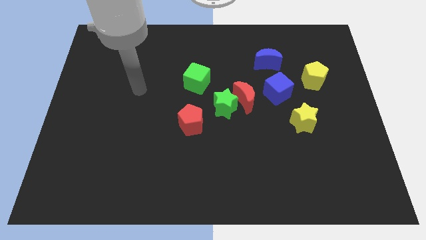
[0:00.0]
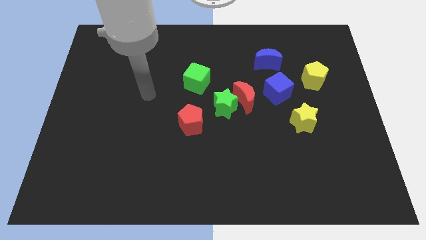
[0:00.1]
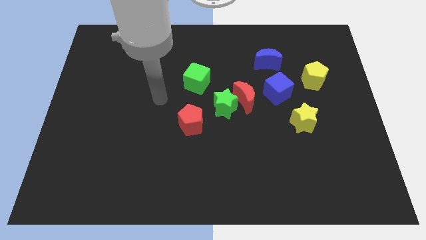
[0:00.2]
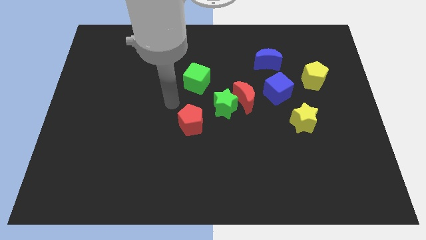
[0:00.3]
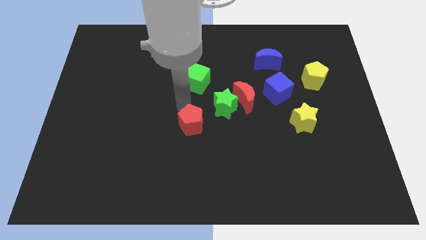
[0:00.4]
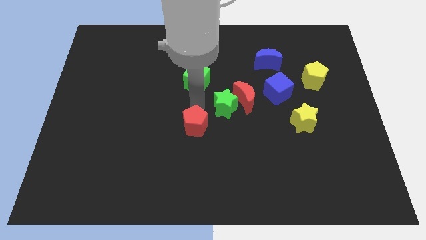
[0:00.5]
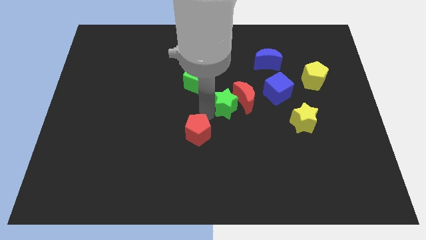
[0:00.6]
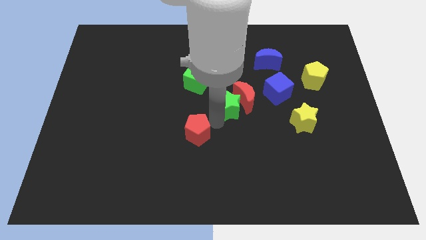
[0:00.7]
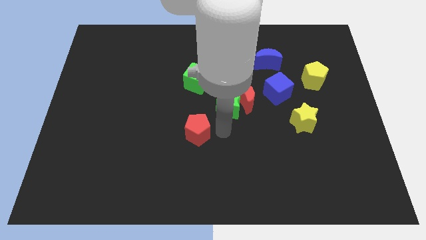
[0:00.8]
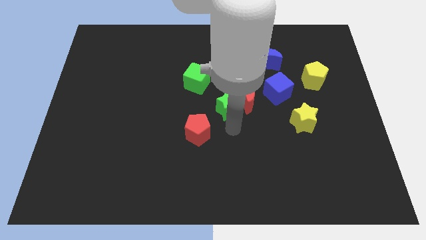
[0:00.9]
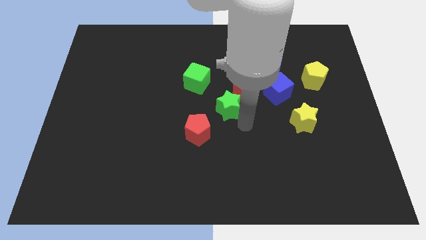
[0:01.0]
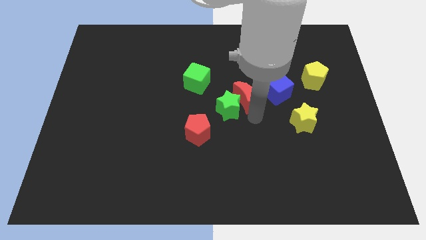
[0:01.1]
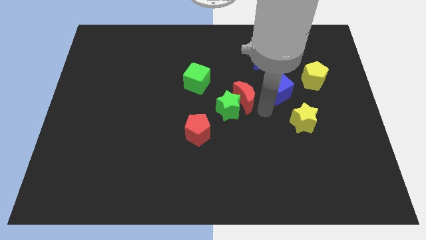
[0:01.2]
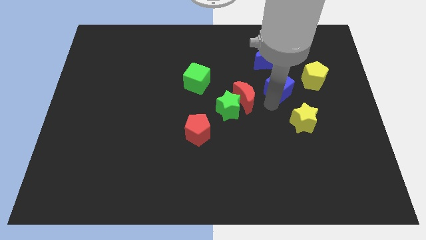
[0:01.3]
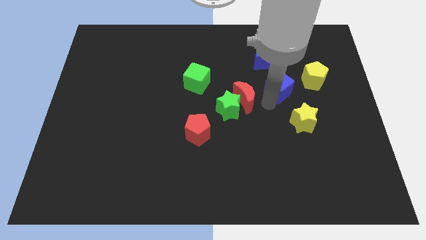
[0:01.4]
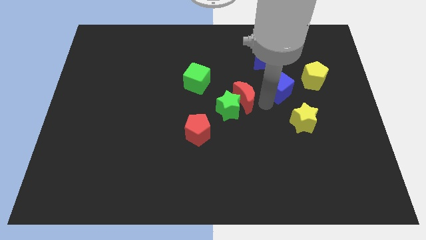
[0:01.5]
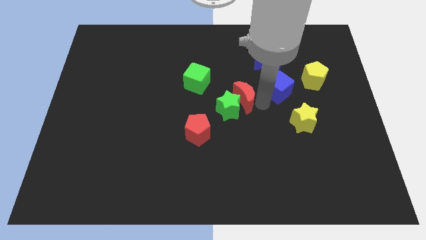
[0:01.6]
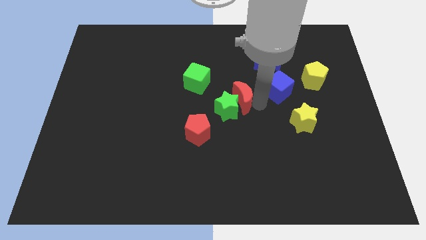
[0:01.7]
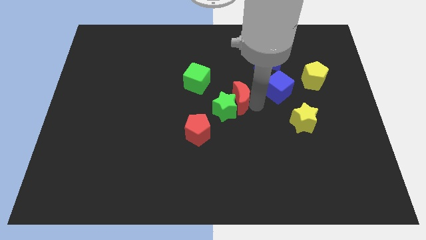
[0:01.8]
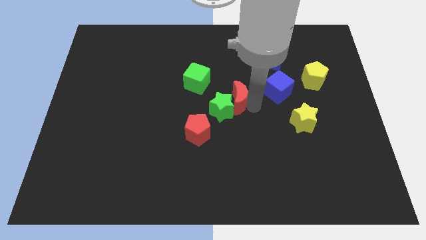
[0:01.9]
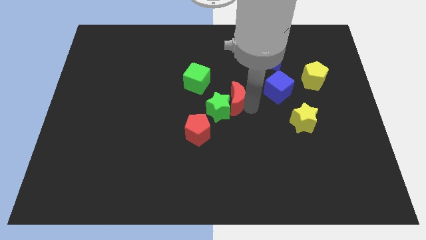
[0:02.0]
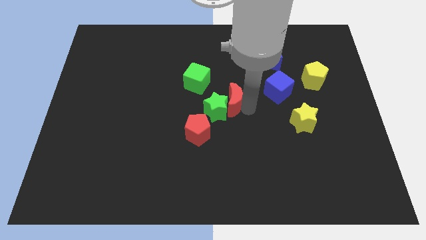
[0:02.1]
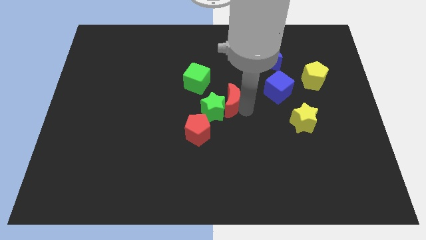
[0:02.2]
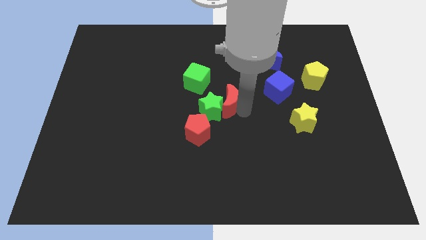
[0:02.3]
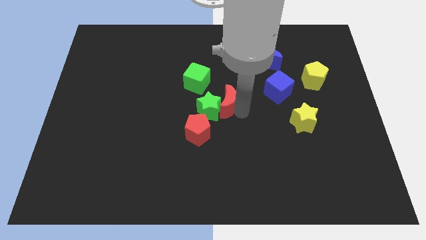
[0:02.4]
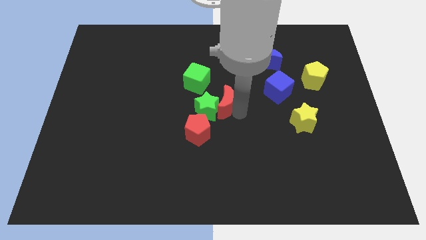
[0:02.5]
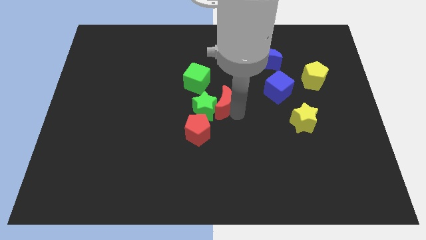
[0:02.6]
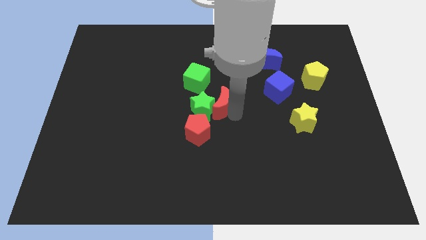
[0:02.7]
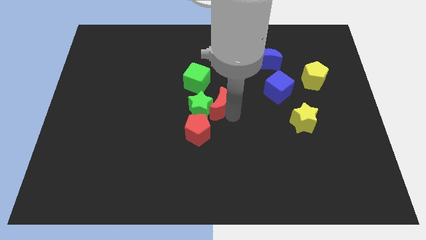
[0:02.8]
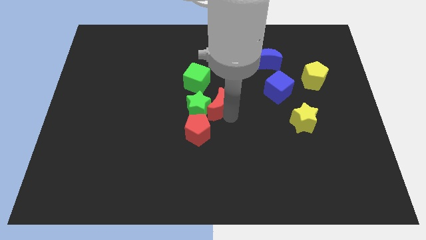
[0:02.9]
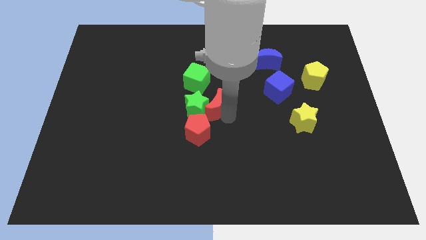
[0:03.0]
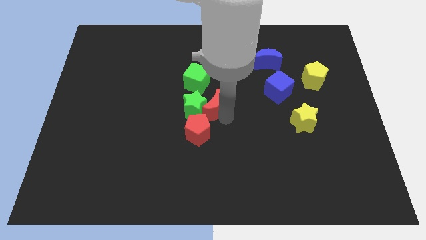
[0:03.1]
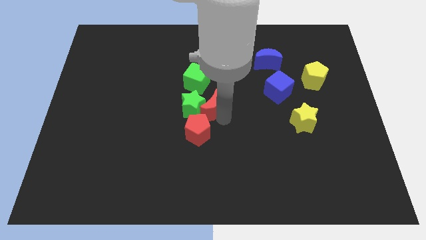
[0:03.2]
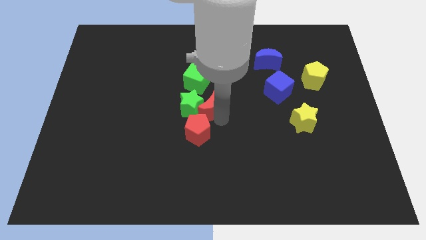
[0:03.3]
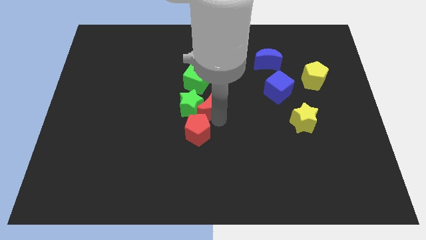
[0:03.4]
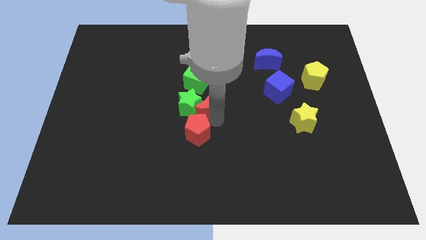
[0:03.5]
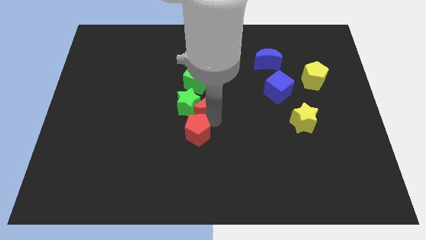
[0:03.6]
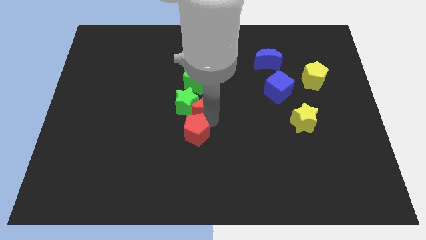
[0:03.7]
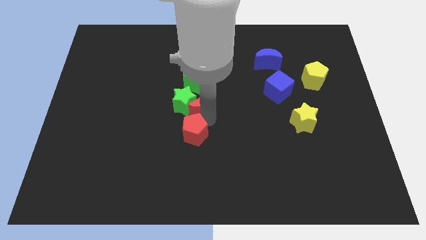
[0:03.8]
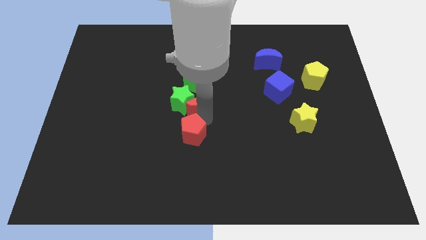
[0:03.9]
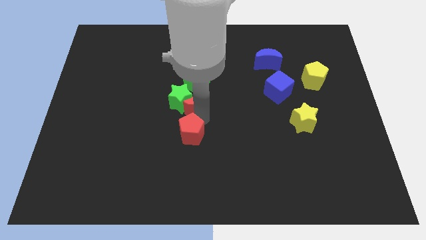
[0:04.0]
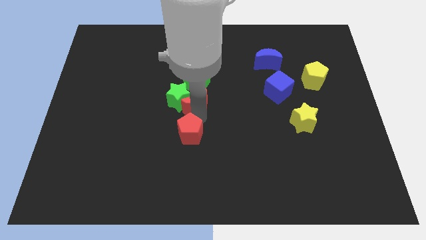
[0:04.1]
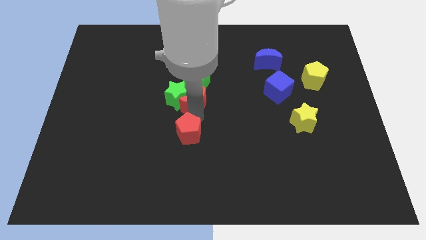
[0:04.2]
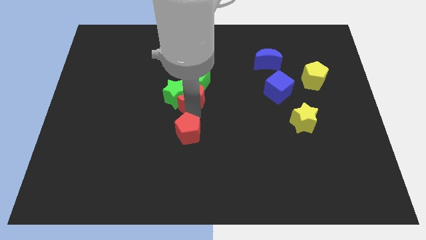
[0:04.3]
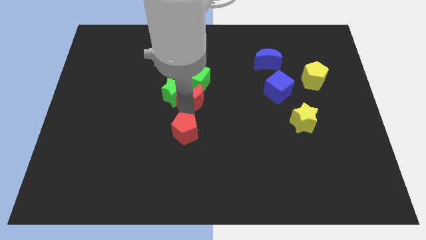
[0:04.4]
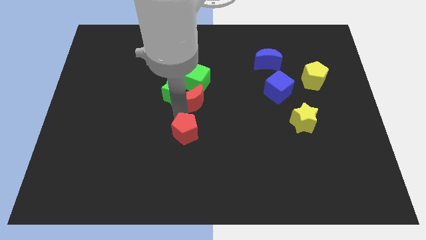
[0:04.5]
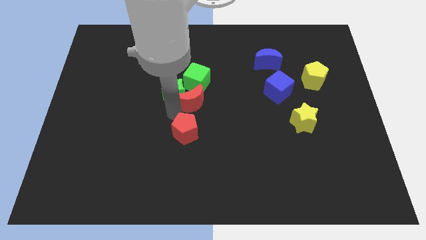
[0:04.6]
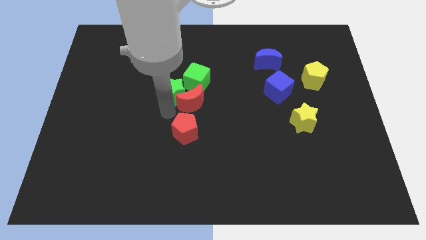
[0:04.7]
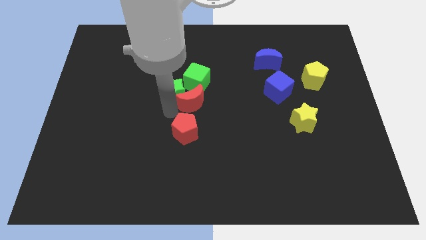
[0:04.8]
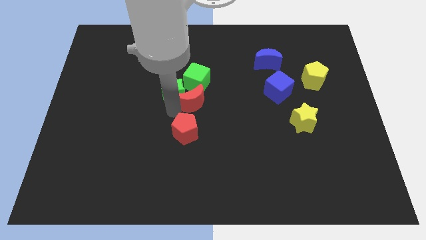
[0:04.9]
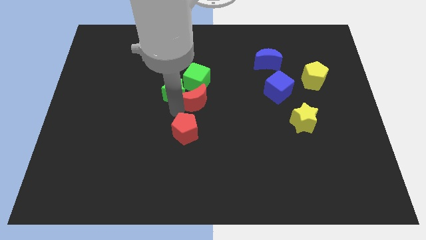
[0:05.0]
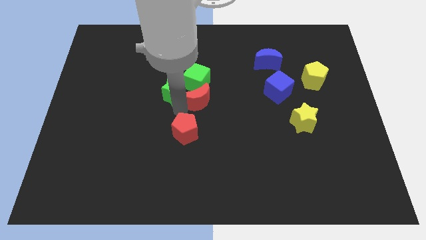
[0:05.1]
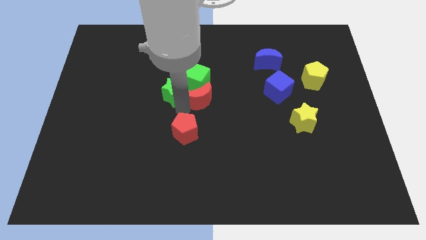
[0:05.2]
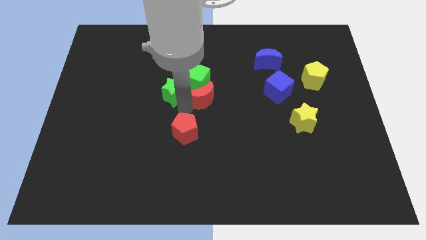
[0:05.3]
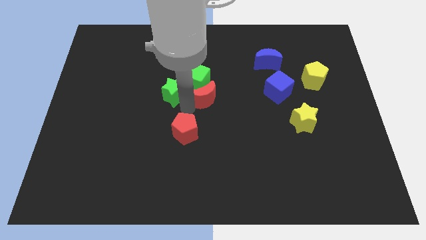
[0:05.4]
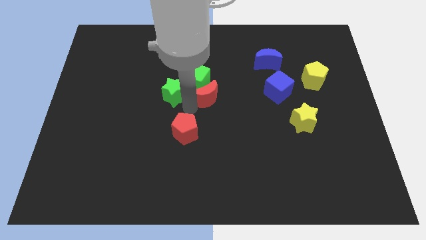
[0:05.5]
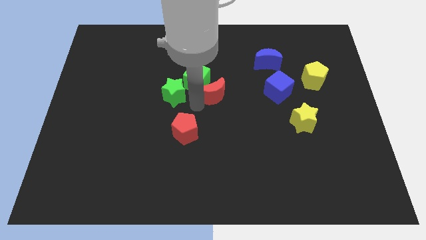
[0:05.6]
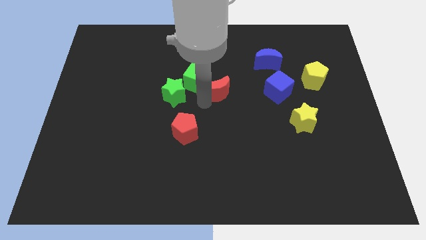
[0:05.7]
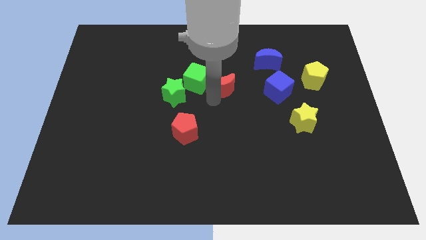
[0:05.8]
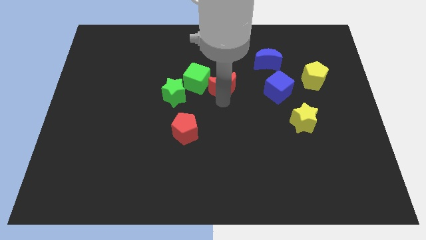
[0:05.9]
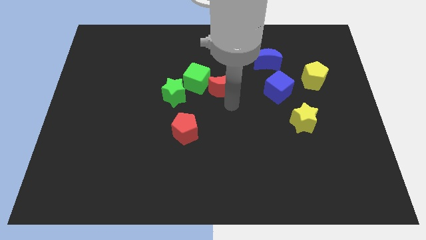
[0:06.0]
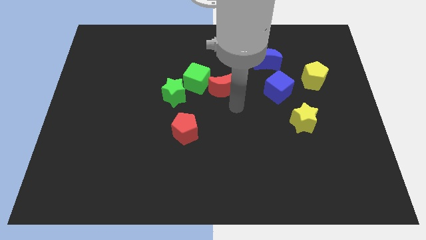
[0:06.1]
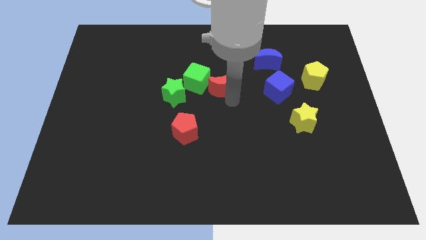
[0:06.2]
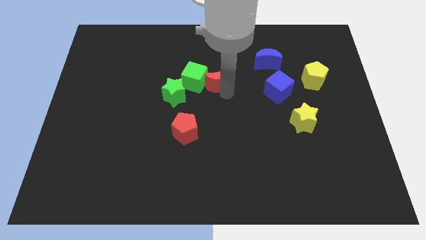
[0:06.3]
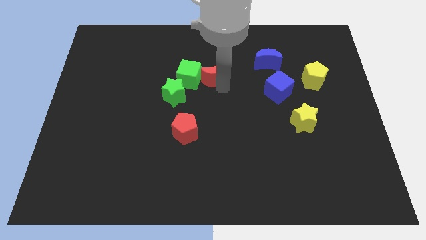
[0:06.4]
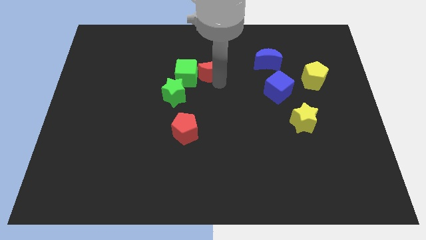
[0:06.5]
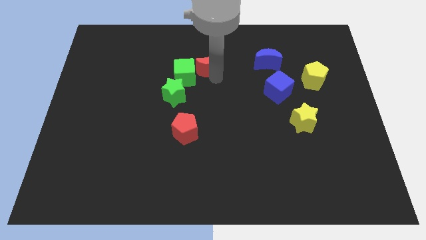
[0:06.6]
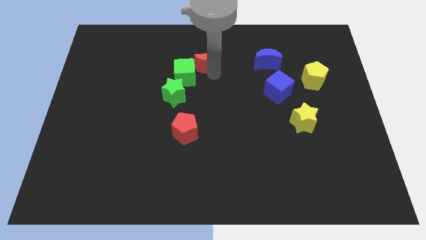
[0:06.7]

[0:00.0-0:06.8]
pull the red moon apart from the green star and blue cube

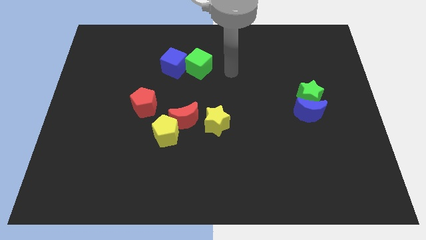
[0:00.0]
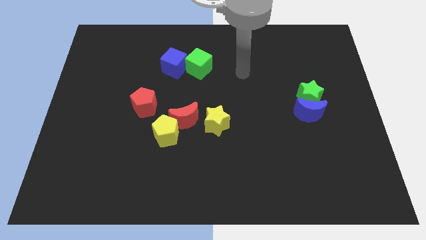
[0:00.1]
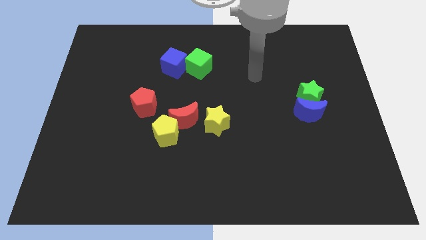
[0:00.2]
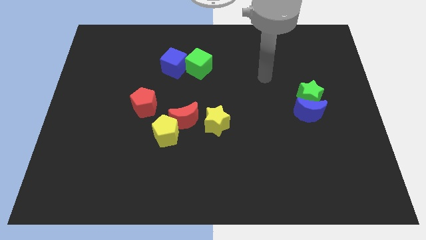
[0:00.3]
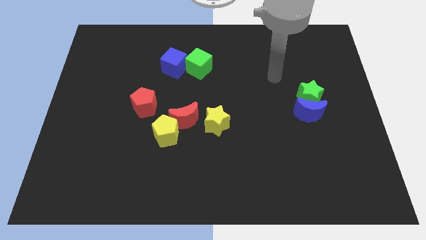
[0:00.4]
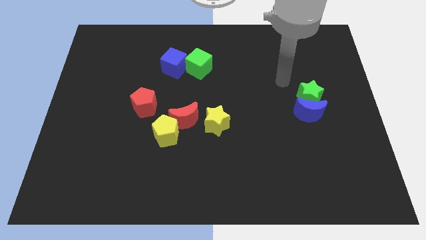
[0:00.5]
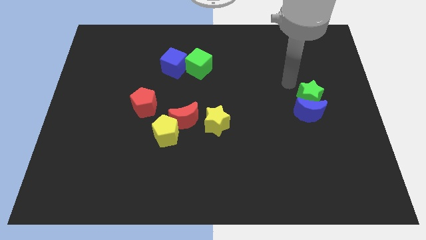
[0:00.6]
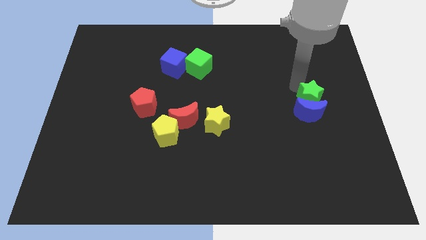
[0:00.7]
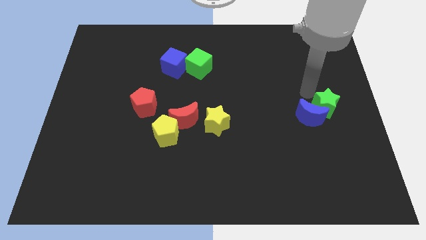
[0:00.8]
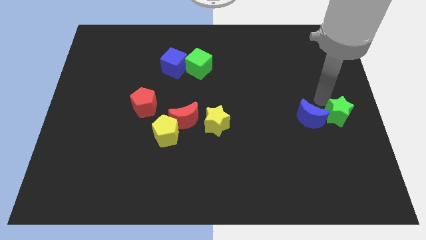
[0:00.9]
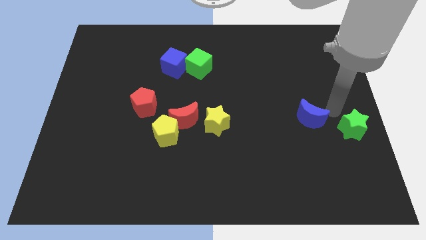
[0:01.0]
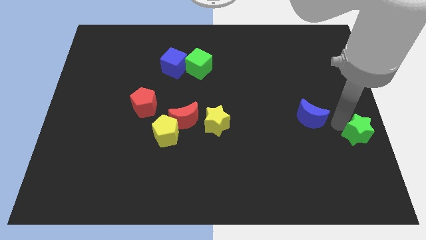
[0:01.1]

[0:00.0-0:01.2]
pull the blue moon apart from the green star

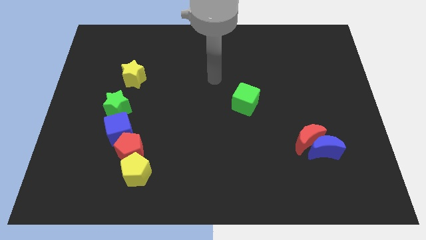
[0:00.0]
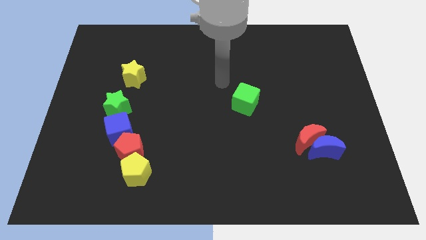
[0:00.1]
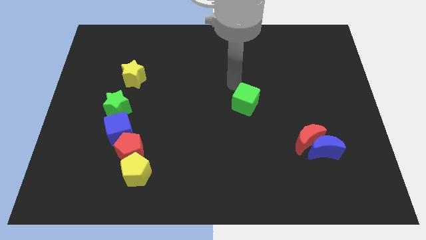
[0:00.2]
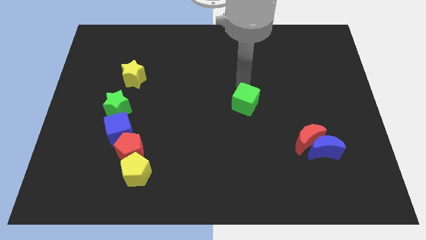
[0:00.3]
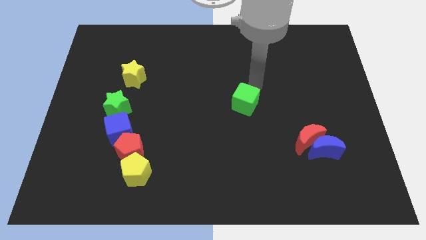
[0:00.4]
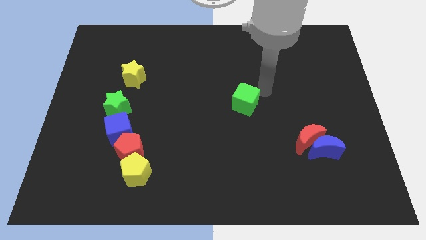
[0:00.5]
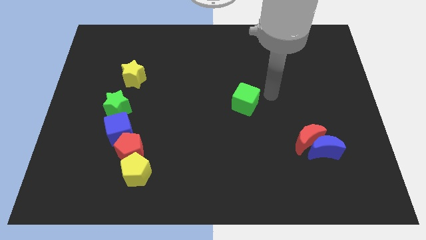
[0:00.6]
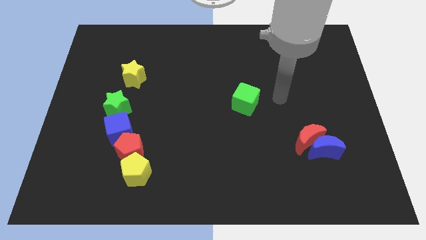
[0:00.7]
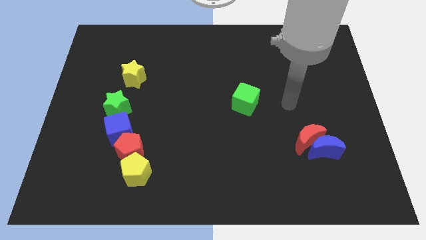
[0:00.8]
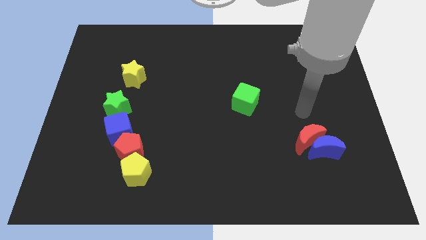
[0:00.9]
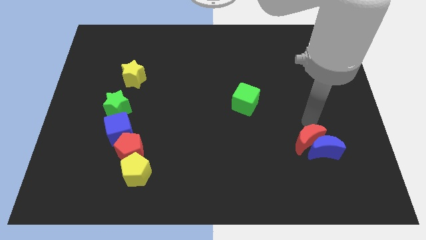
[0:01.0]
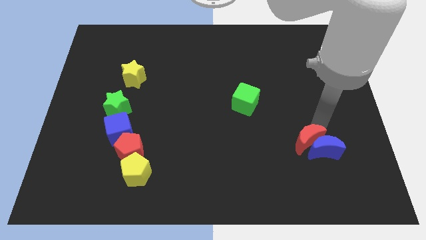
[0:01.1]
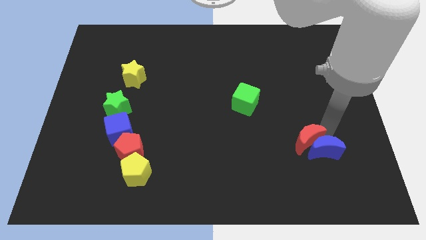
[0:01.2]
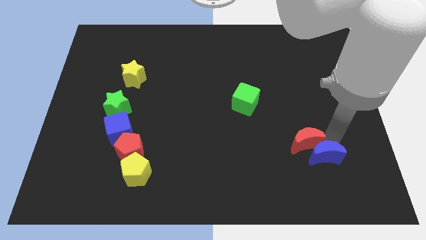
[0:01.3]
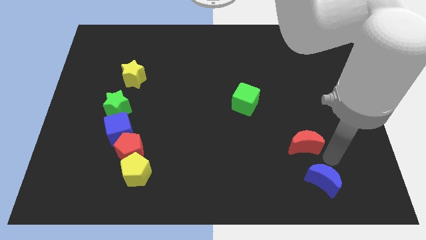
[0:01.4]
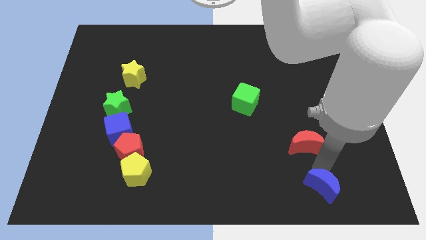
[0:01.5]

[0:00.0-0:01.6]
pull the red moon apart from the blue moon
